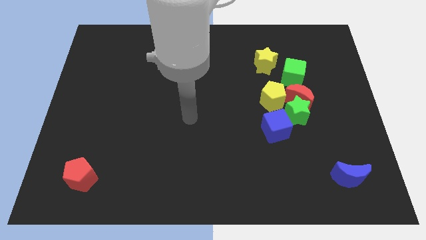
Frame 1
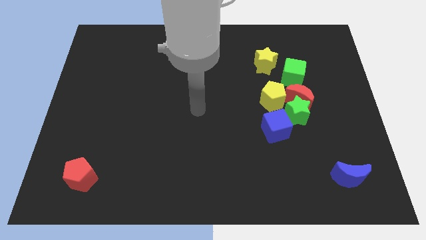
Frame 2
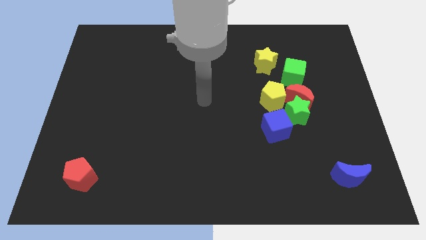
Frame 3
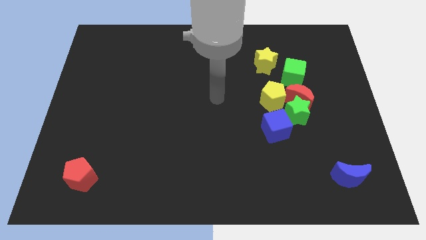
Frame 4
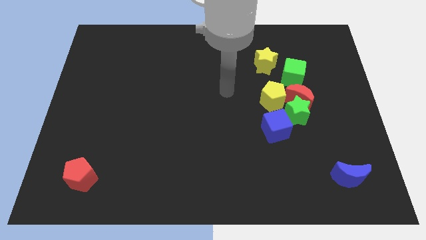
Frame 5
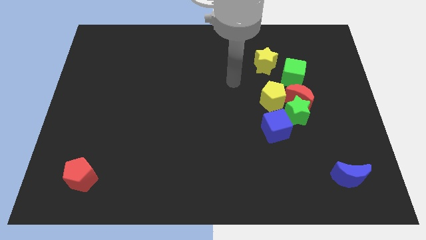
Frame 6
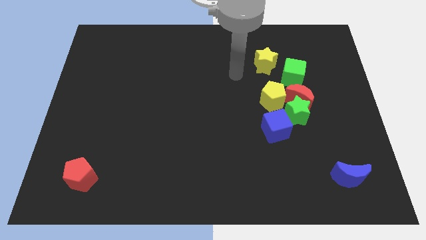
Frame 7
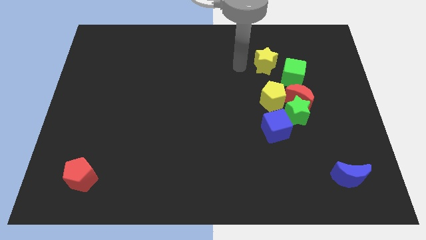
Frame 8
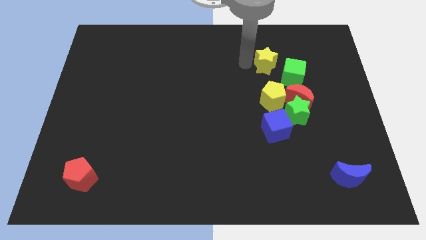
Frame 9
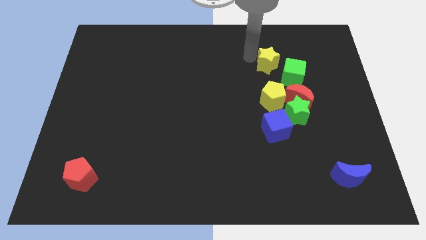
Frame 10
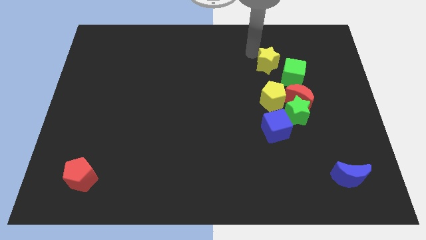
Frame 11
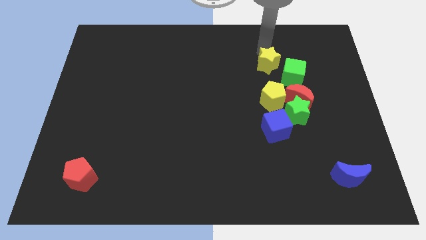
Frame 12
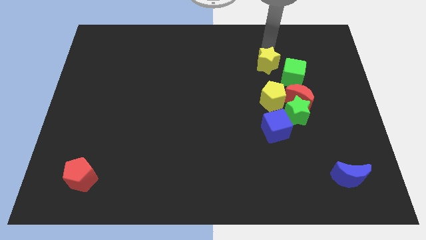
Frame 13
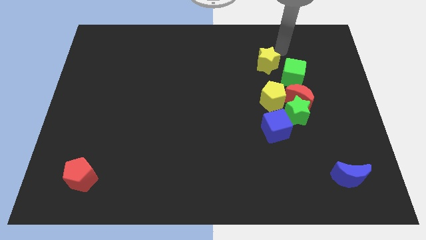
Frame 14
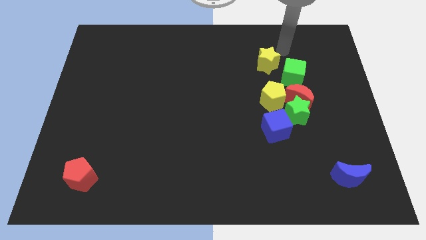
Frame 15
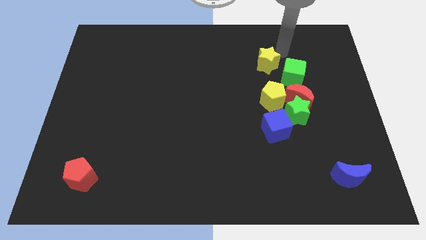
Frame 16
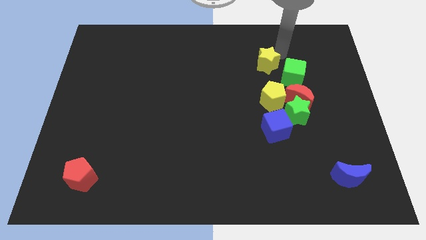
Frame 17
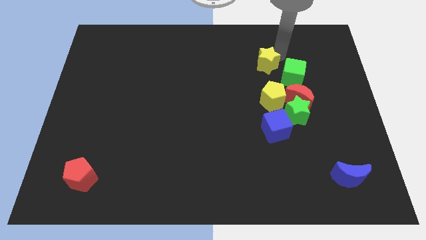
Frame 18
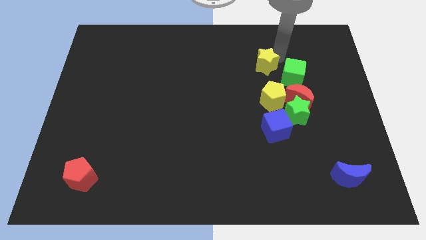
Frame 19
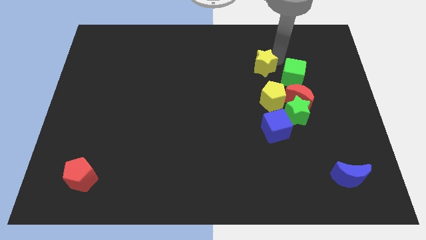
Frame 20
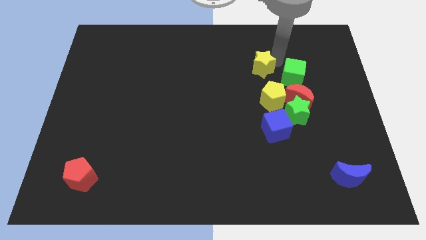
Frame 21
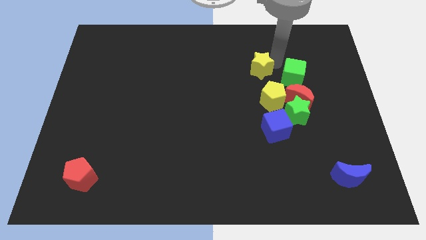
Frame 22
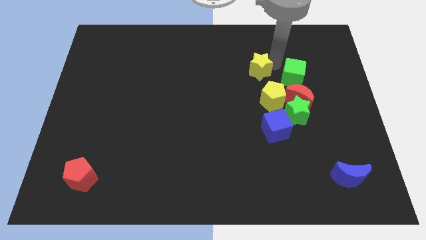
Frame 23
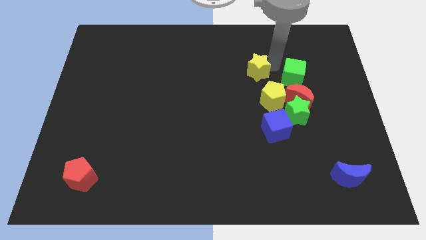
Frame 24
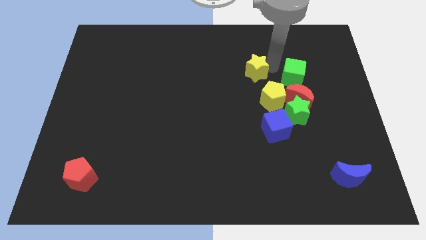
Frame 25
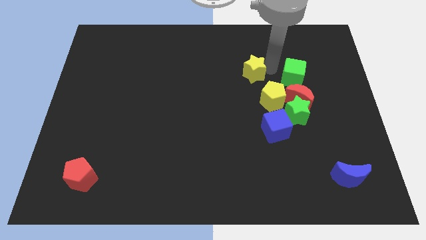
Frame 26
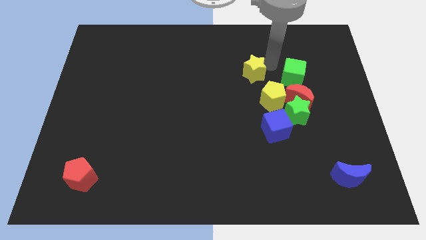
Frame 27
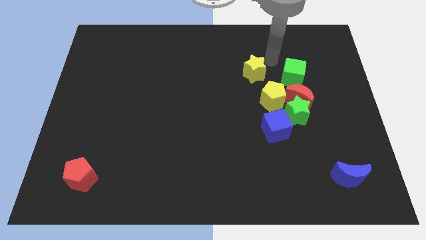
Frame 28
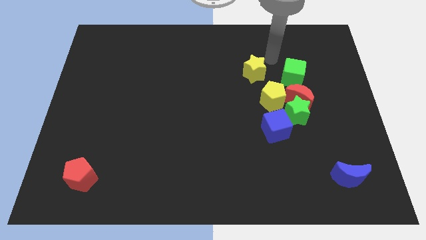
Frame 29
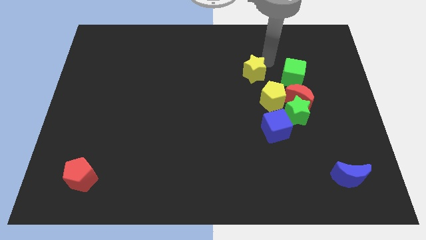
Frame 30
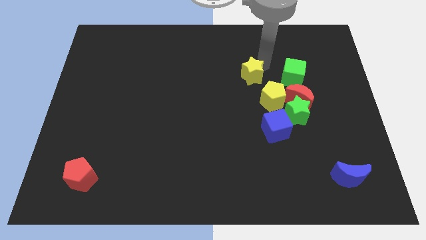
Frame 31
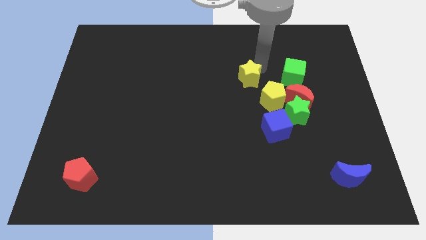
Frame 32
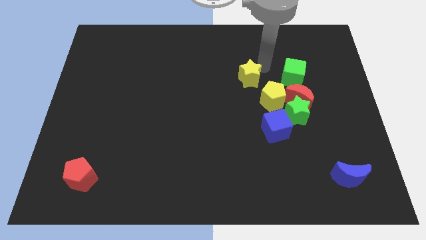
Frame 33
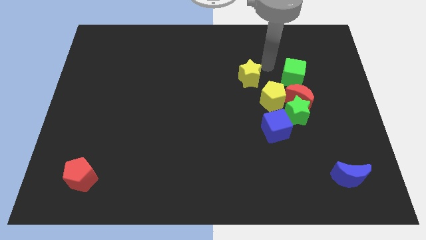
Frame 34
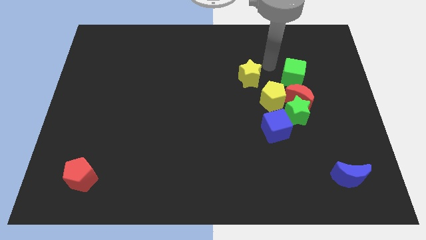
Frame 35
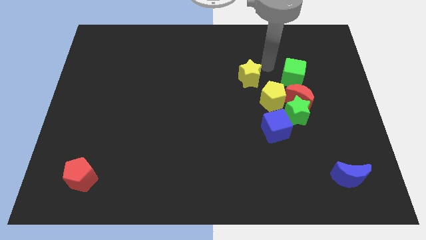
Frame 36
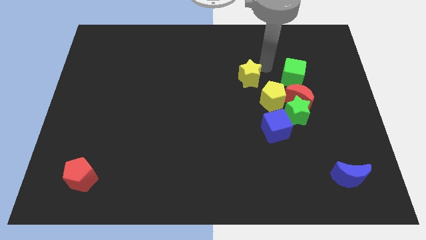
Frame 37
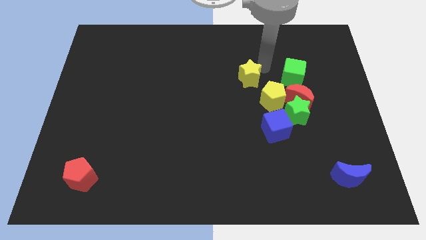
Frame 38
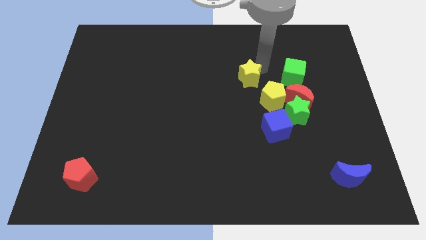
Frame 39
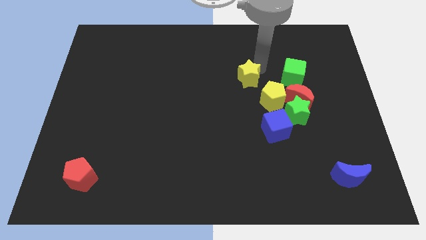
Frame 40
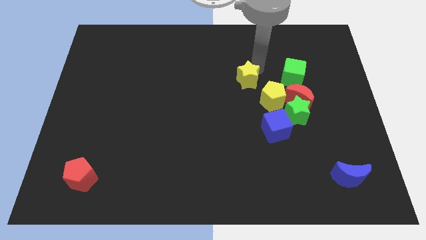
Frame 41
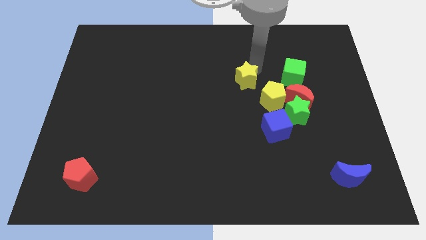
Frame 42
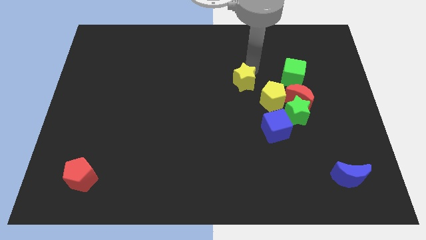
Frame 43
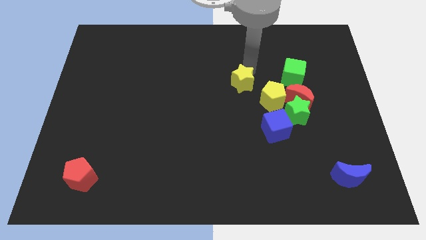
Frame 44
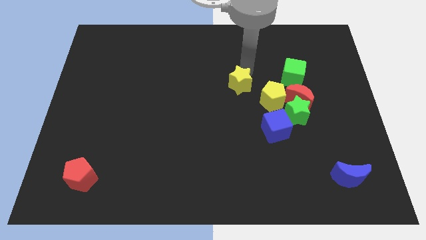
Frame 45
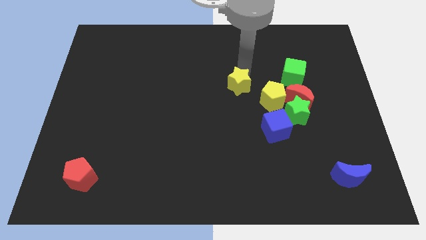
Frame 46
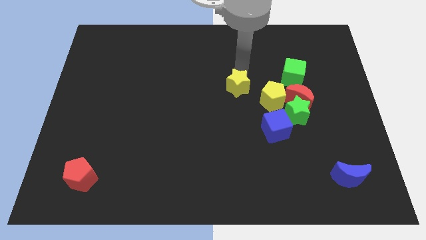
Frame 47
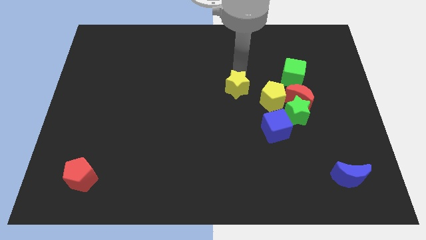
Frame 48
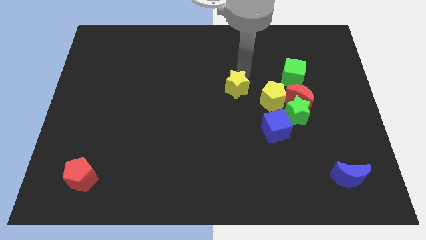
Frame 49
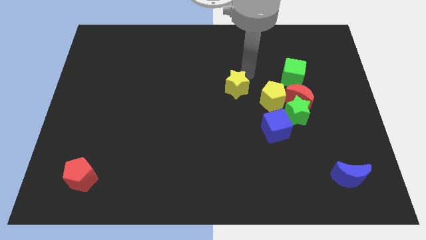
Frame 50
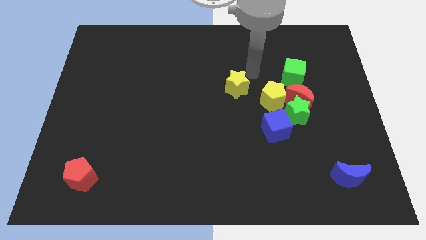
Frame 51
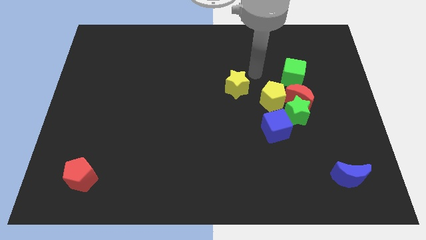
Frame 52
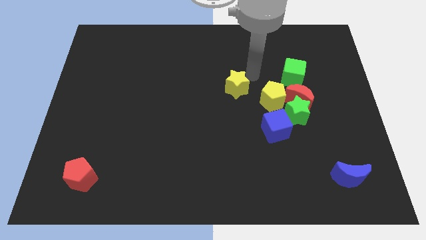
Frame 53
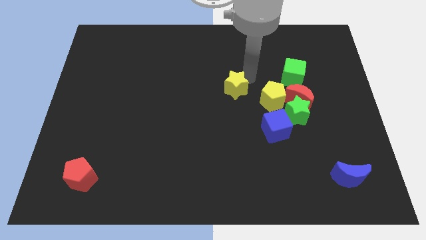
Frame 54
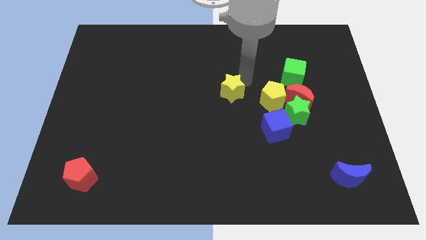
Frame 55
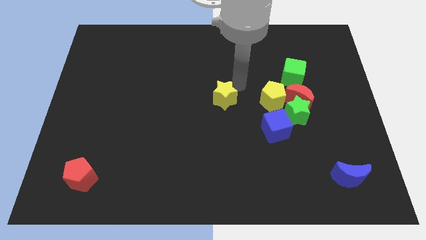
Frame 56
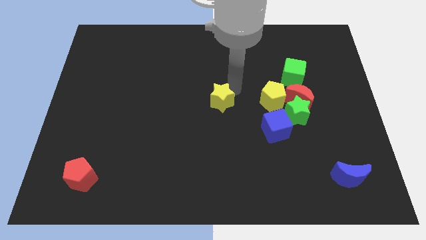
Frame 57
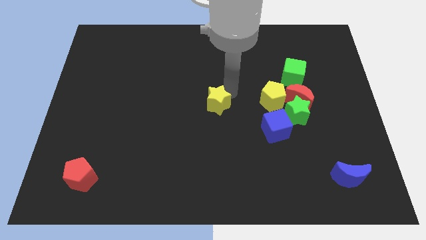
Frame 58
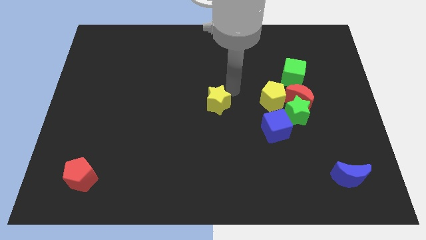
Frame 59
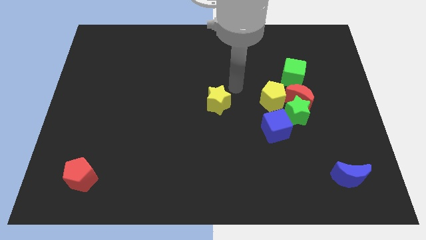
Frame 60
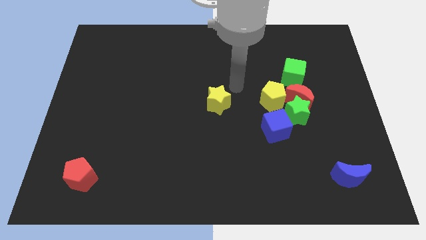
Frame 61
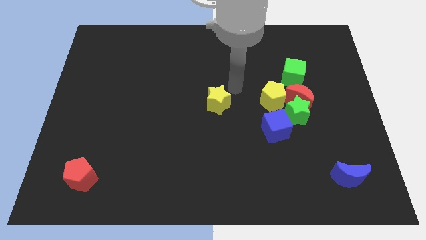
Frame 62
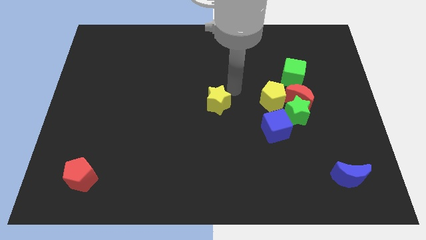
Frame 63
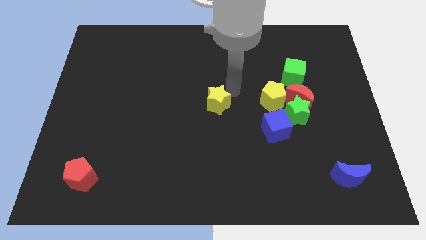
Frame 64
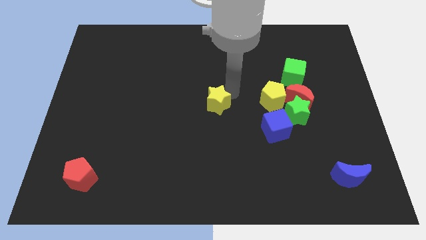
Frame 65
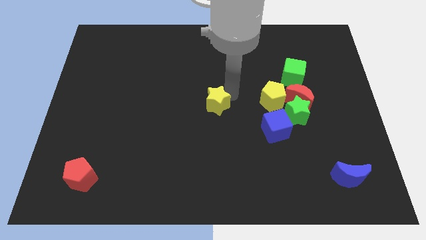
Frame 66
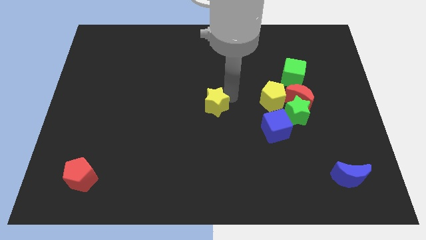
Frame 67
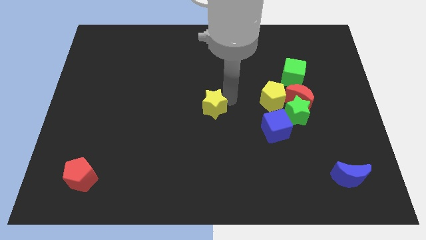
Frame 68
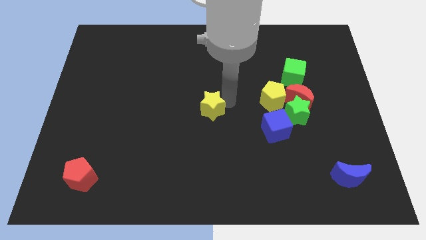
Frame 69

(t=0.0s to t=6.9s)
move the yellow star down and then to the left

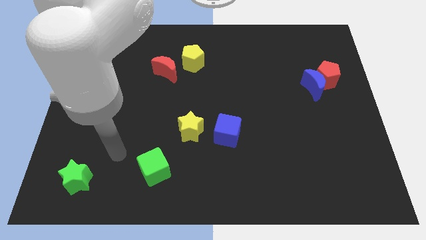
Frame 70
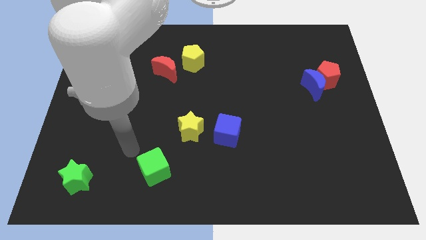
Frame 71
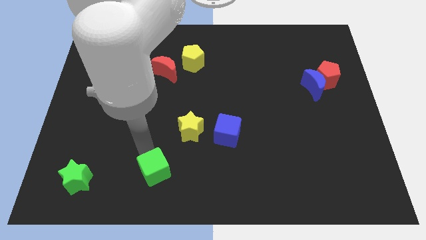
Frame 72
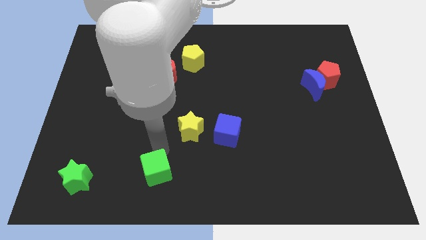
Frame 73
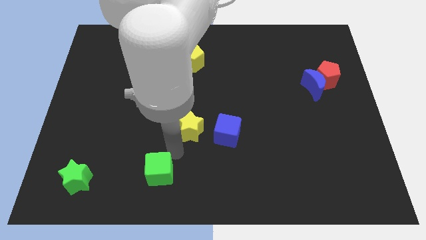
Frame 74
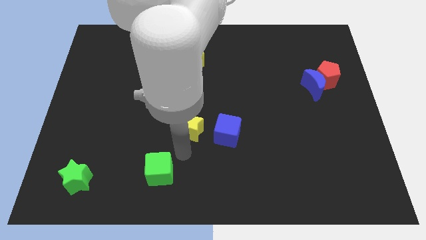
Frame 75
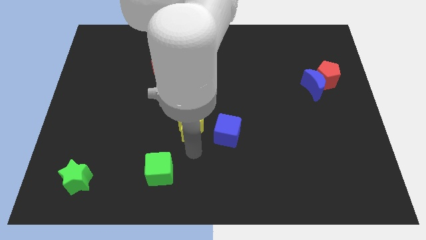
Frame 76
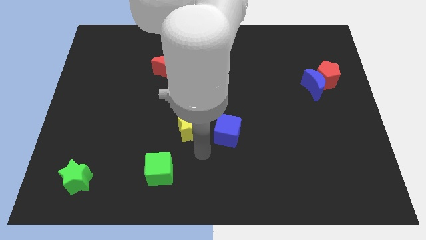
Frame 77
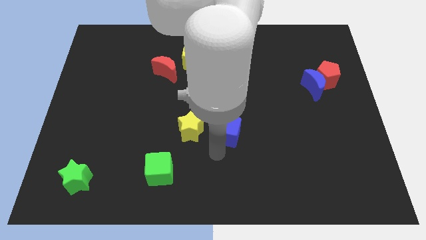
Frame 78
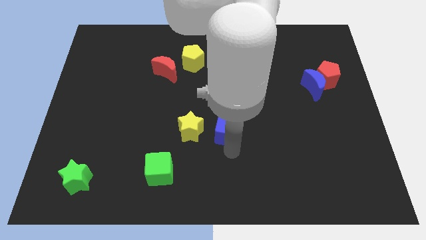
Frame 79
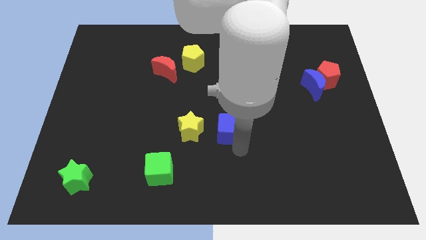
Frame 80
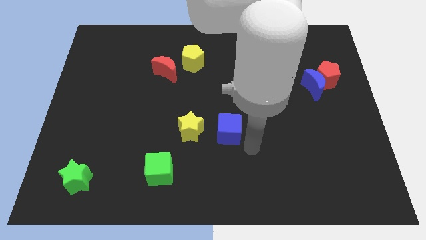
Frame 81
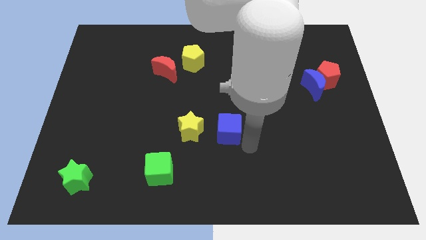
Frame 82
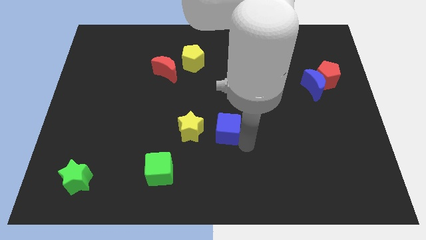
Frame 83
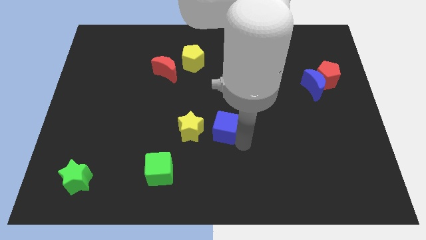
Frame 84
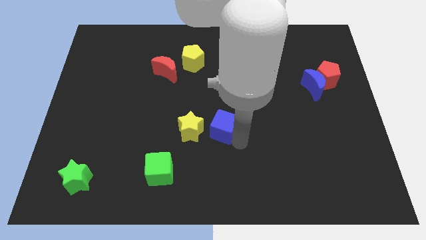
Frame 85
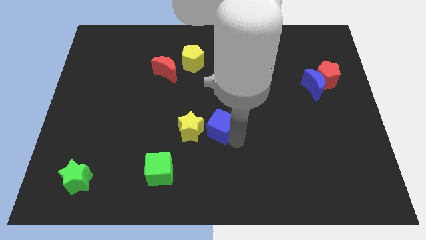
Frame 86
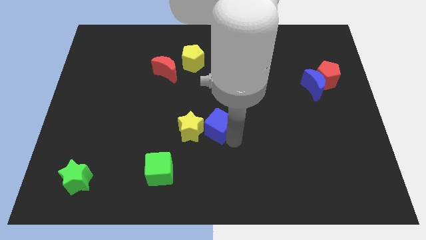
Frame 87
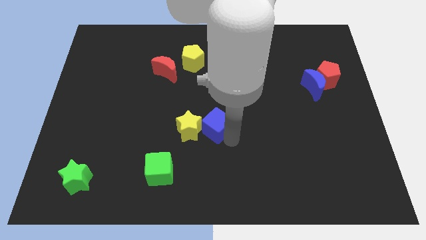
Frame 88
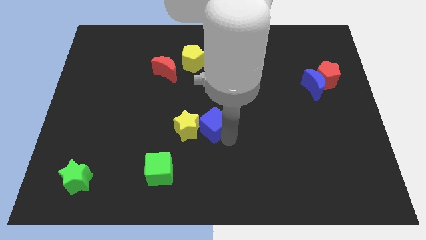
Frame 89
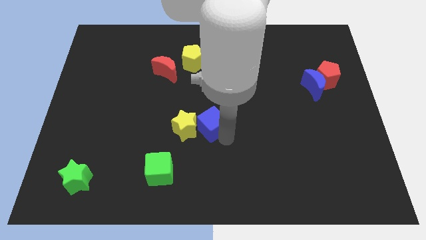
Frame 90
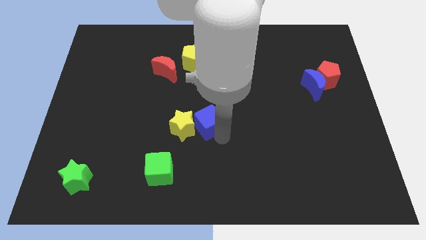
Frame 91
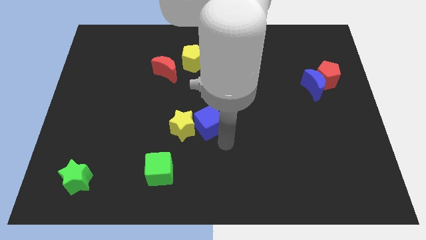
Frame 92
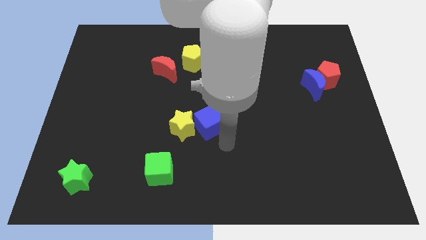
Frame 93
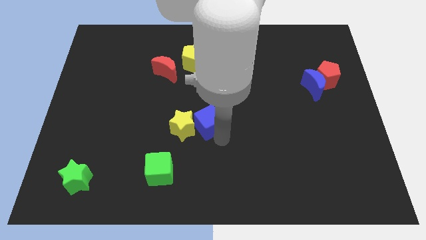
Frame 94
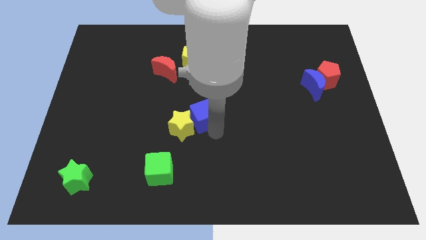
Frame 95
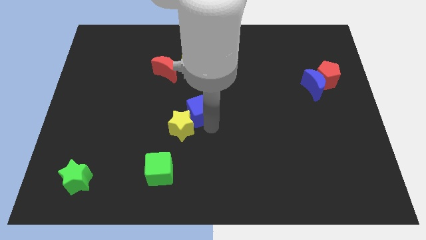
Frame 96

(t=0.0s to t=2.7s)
push the blue cube a little bit up and to the left
